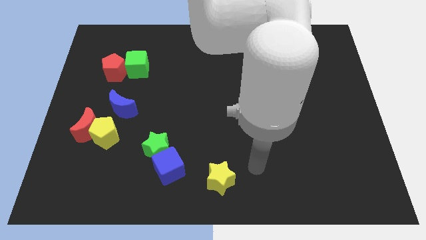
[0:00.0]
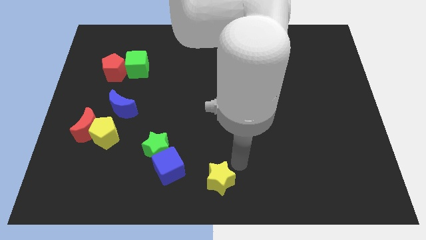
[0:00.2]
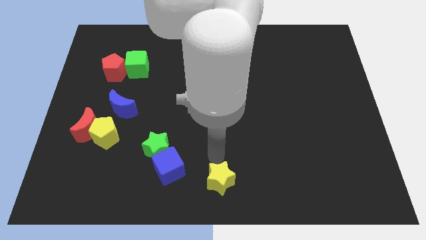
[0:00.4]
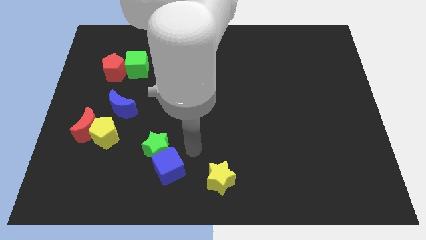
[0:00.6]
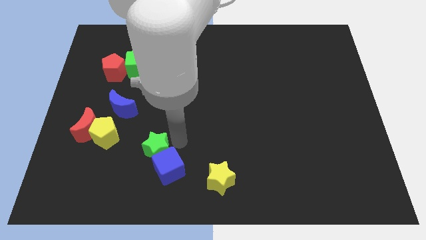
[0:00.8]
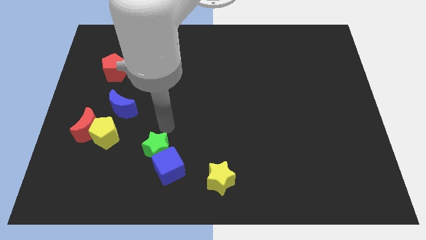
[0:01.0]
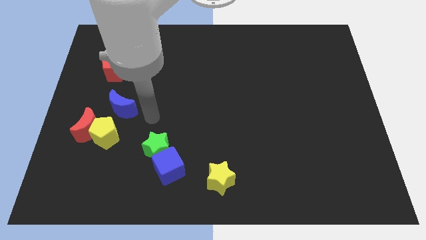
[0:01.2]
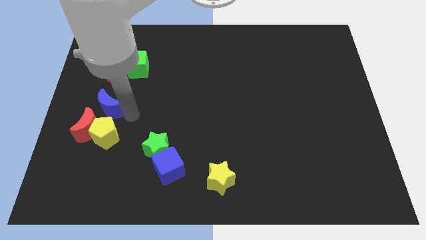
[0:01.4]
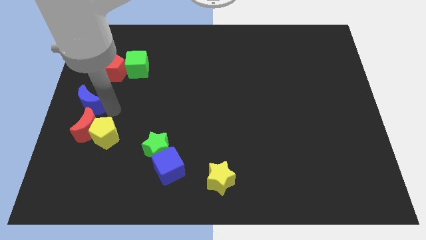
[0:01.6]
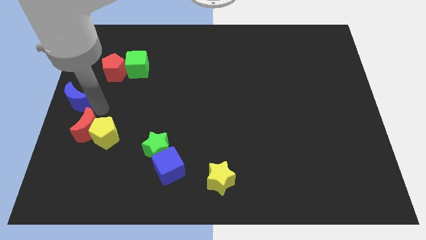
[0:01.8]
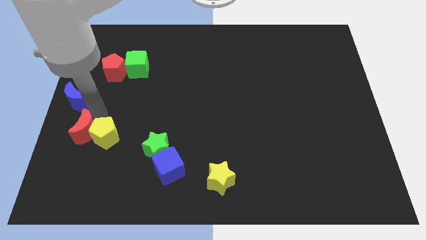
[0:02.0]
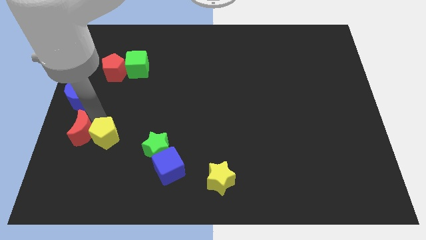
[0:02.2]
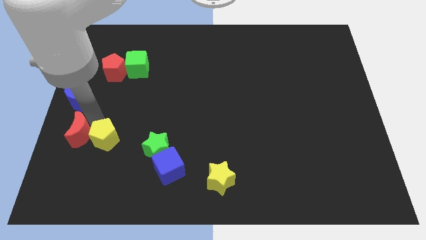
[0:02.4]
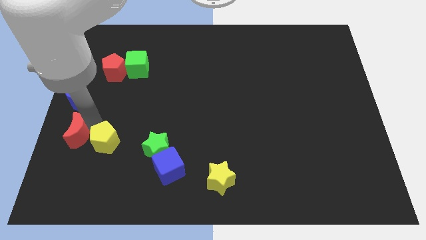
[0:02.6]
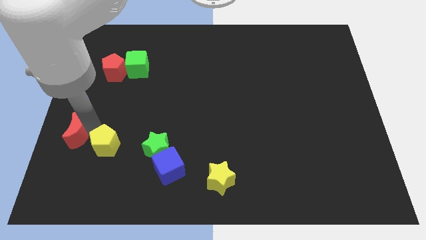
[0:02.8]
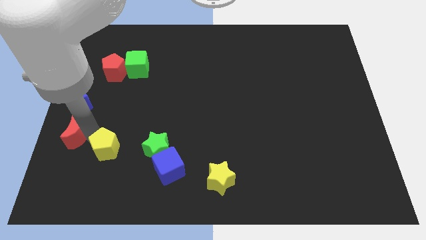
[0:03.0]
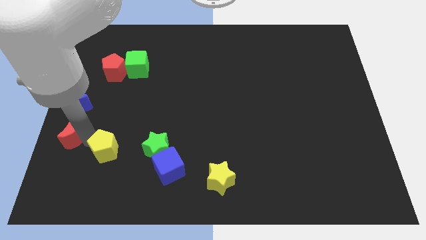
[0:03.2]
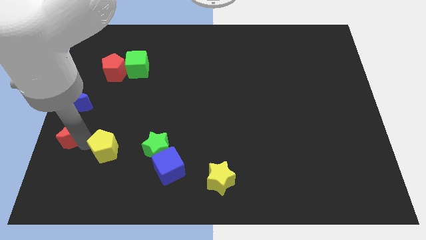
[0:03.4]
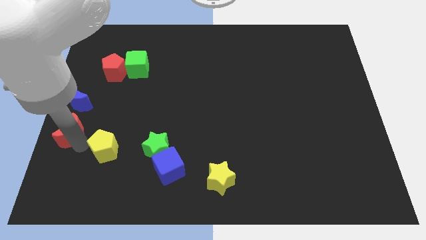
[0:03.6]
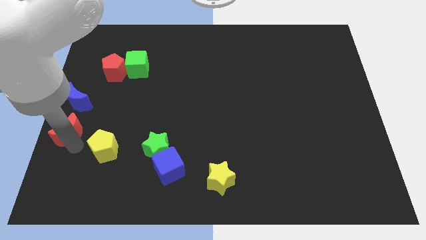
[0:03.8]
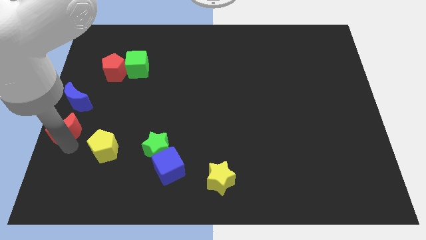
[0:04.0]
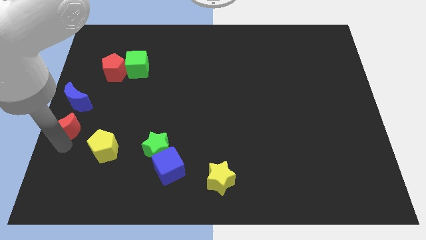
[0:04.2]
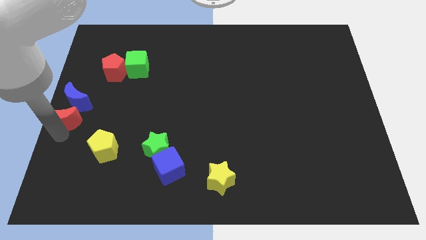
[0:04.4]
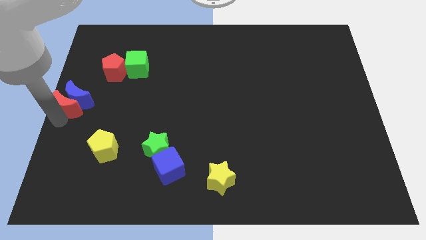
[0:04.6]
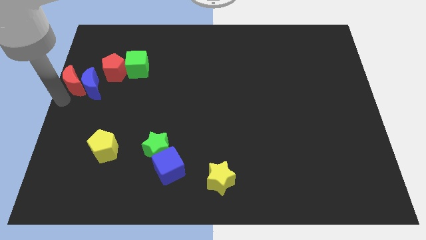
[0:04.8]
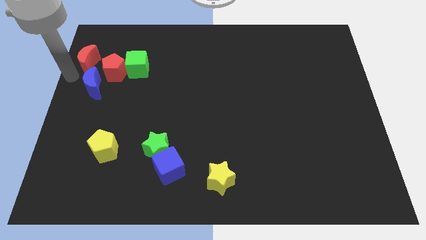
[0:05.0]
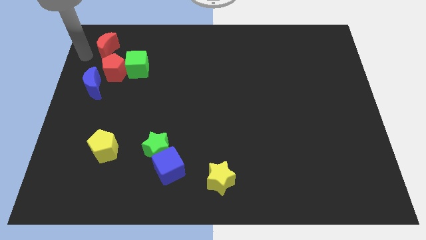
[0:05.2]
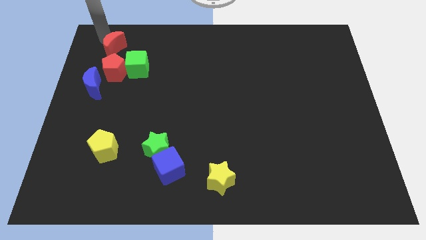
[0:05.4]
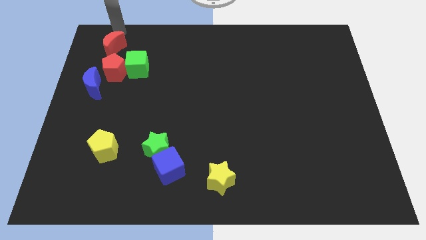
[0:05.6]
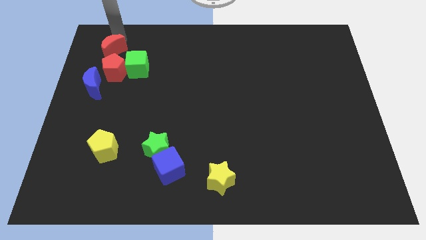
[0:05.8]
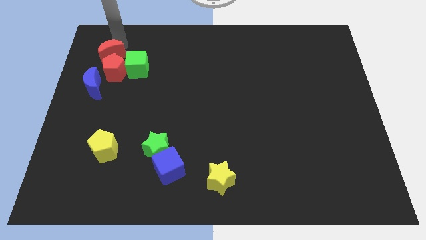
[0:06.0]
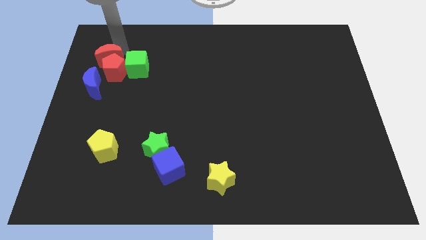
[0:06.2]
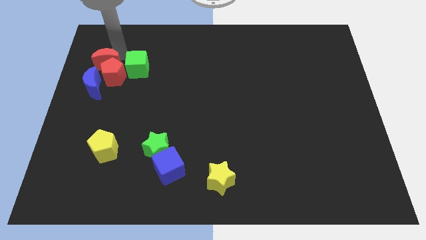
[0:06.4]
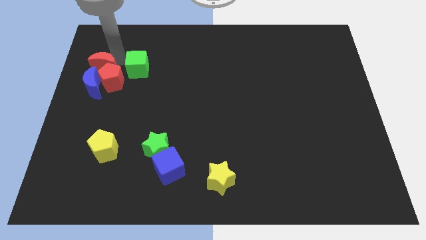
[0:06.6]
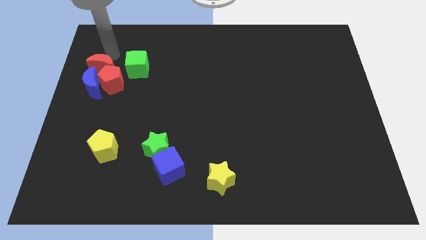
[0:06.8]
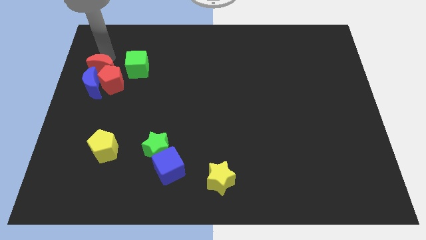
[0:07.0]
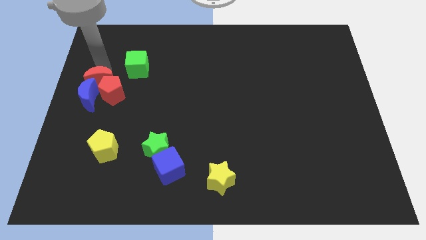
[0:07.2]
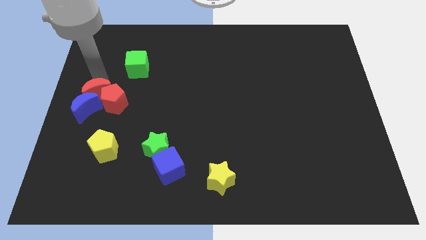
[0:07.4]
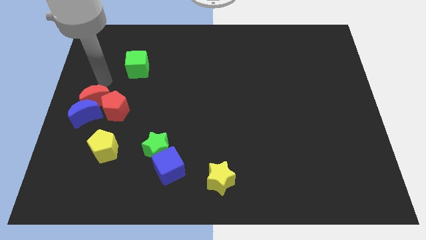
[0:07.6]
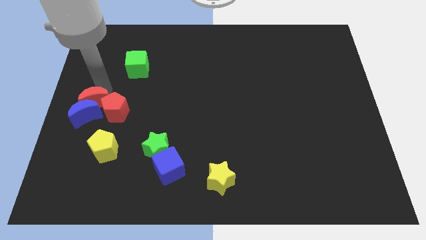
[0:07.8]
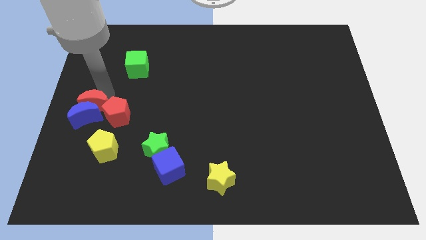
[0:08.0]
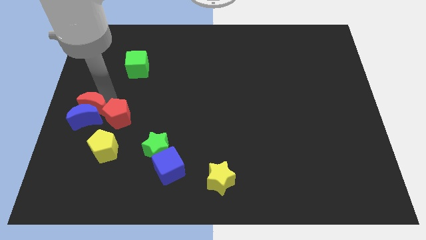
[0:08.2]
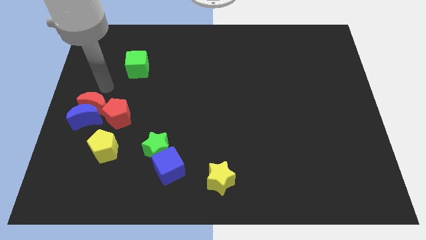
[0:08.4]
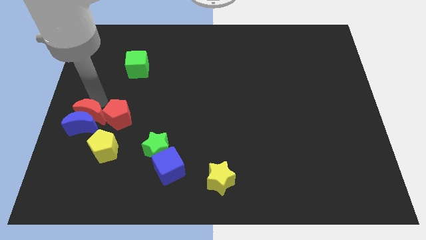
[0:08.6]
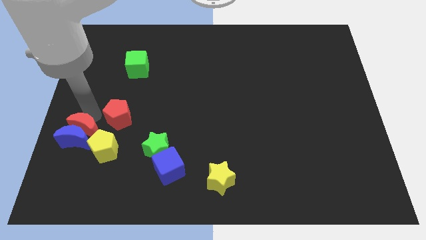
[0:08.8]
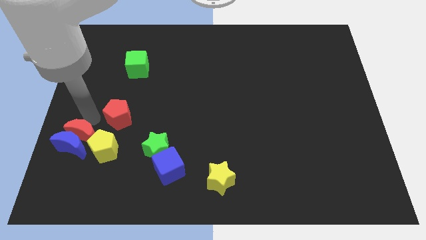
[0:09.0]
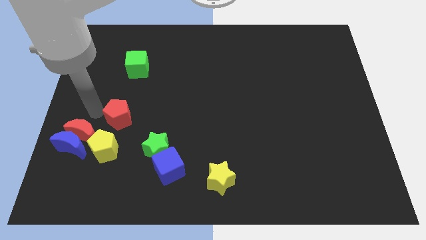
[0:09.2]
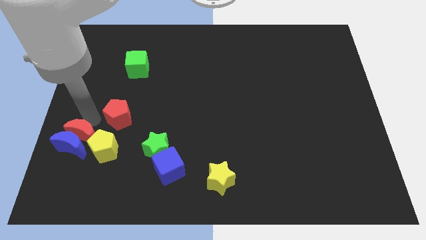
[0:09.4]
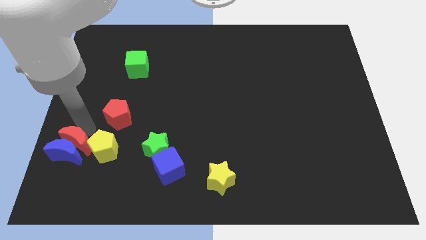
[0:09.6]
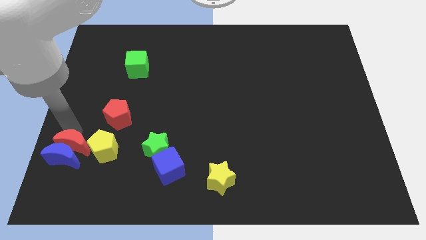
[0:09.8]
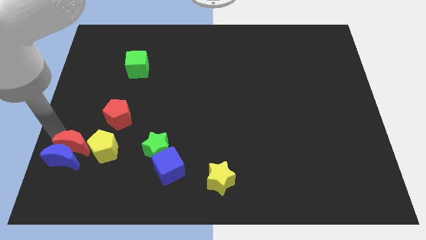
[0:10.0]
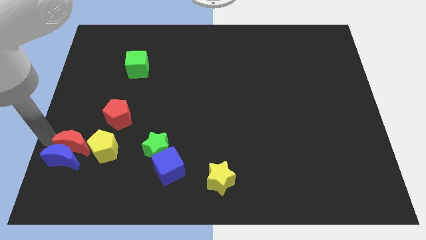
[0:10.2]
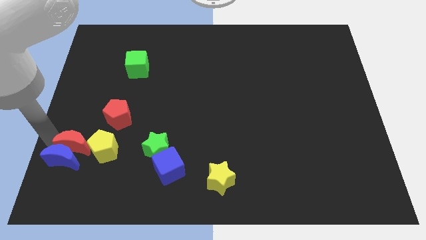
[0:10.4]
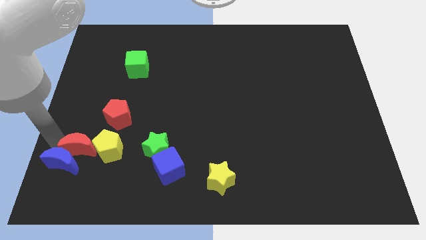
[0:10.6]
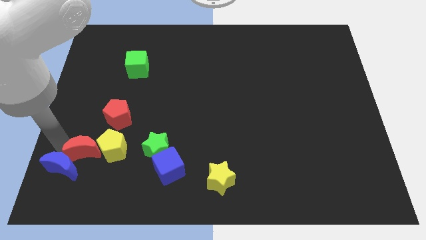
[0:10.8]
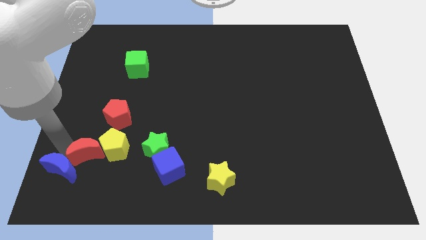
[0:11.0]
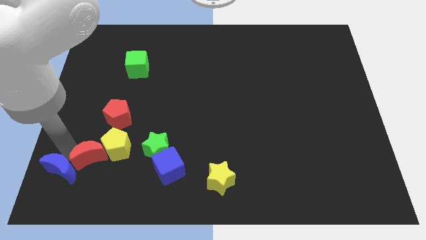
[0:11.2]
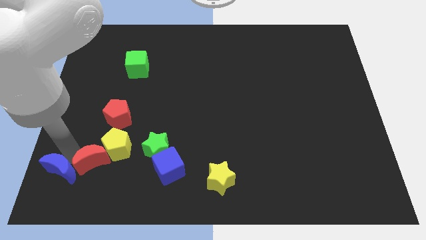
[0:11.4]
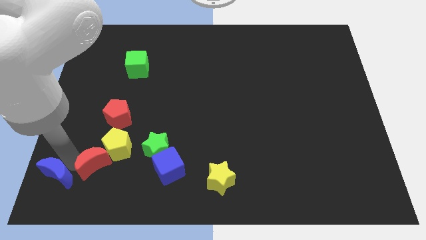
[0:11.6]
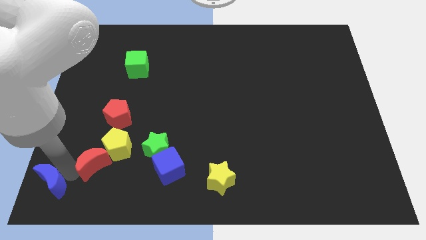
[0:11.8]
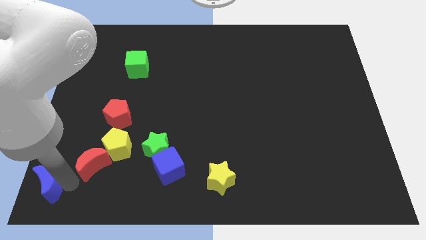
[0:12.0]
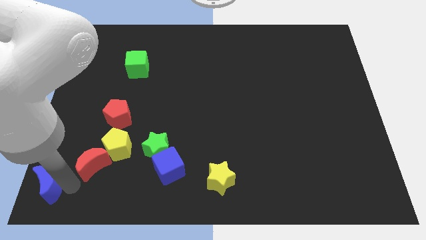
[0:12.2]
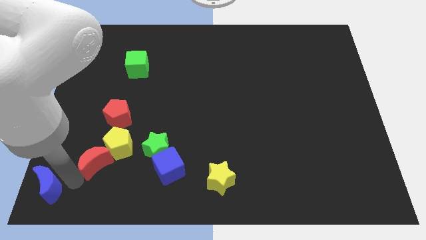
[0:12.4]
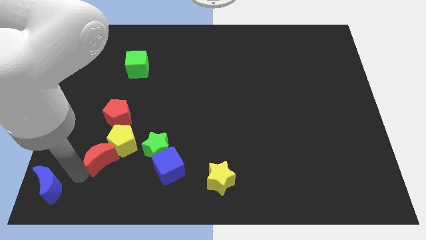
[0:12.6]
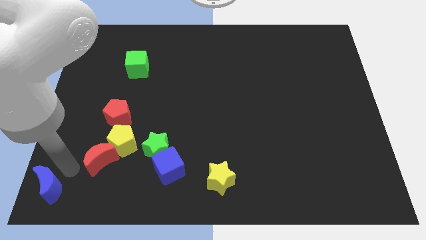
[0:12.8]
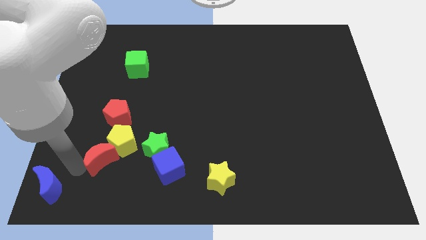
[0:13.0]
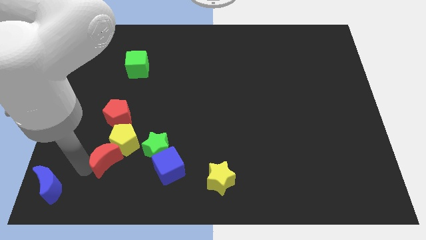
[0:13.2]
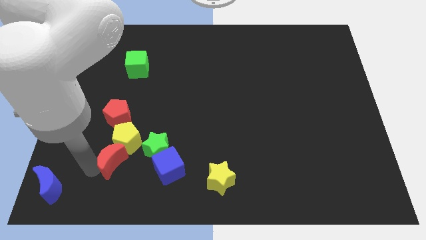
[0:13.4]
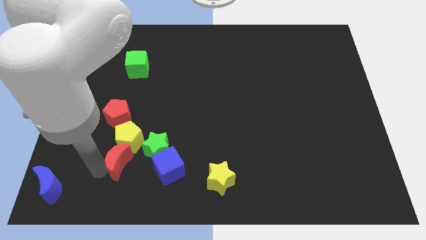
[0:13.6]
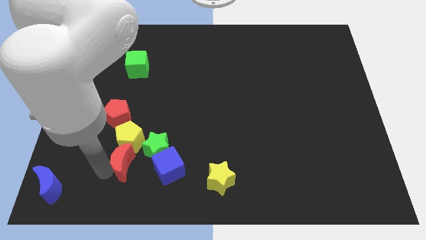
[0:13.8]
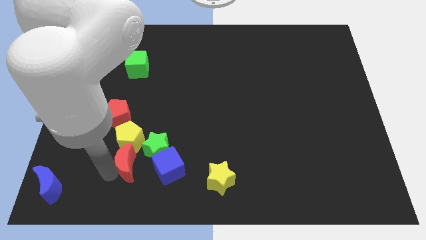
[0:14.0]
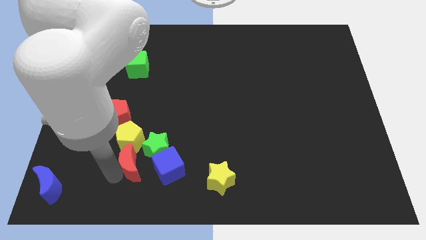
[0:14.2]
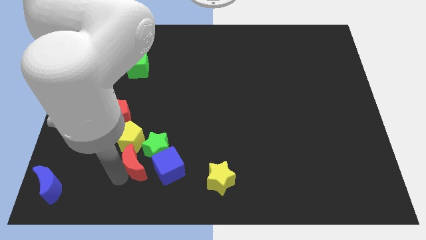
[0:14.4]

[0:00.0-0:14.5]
slide the red moon towards the green star
